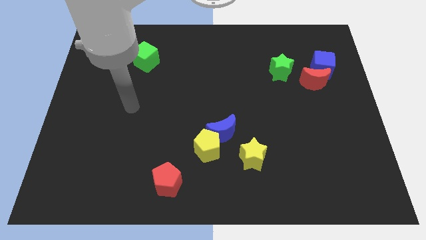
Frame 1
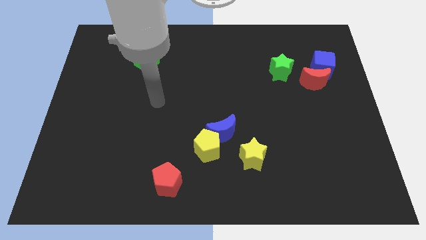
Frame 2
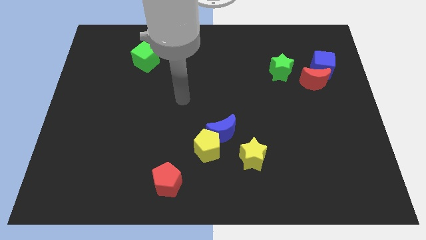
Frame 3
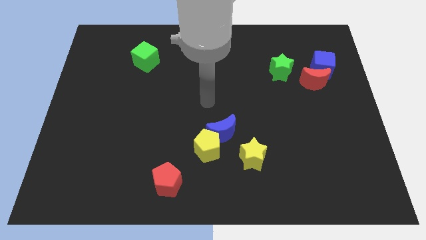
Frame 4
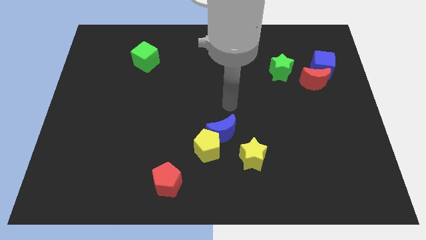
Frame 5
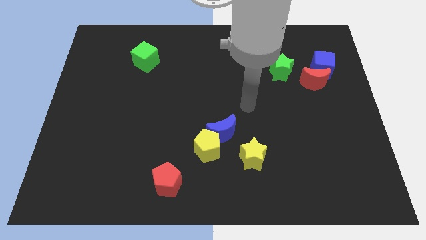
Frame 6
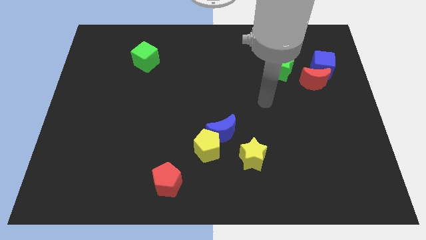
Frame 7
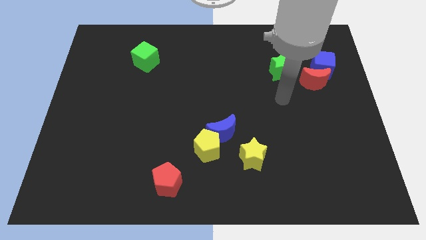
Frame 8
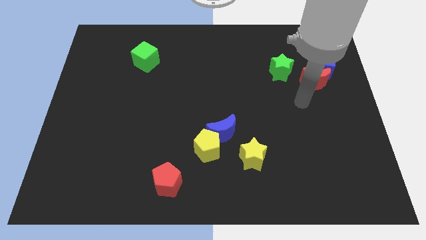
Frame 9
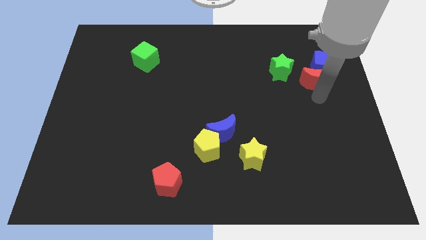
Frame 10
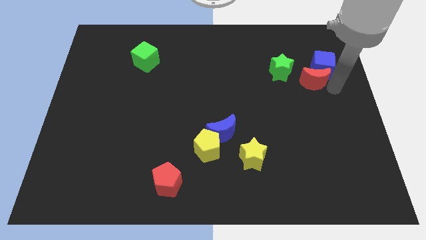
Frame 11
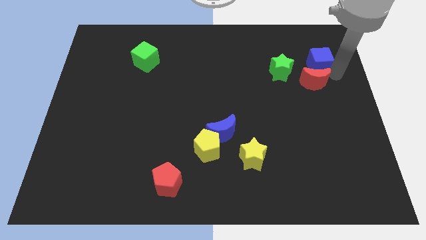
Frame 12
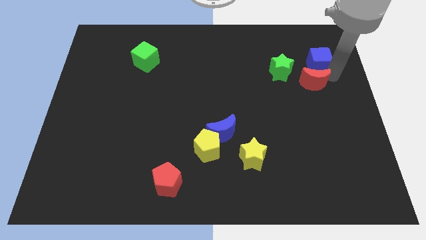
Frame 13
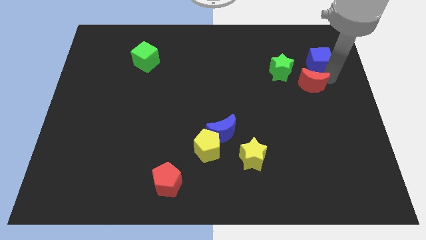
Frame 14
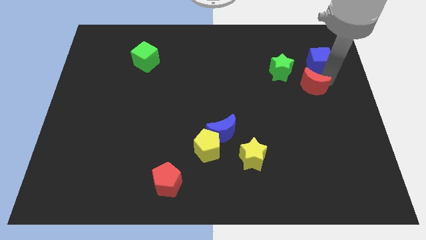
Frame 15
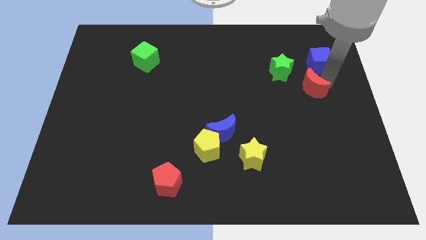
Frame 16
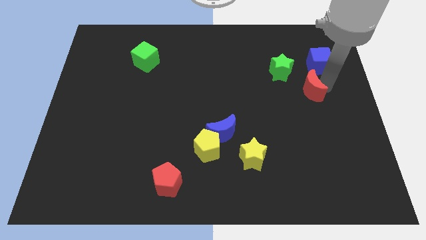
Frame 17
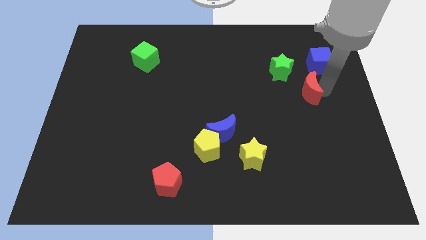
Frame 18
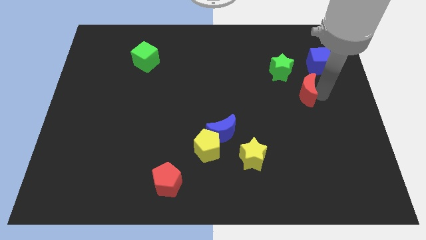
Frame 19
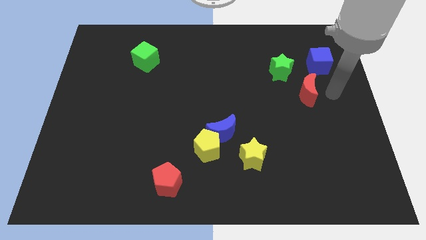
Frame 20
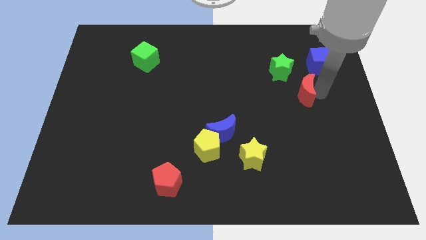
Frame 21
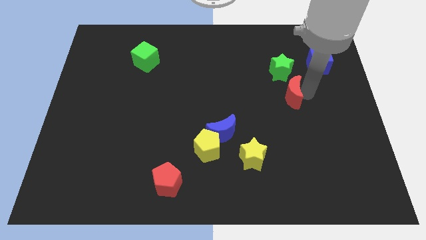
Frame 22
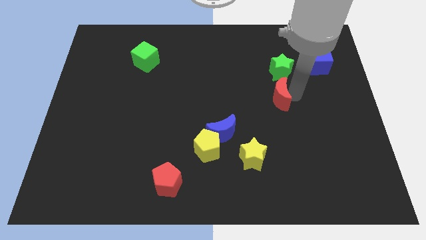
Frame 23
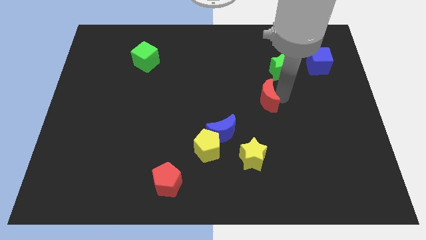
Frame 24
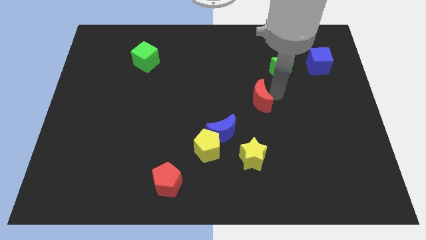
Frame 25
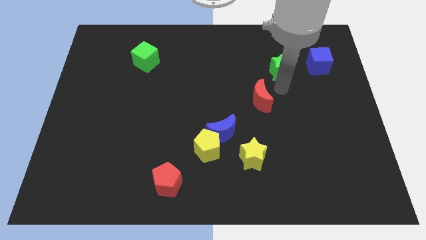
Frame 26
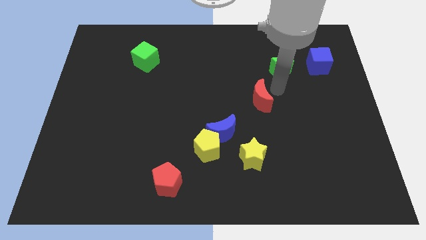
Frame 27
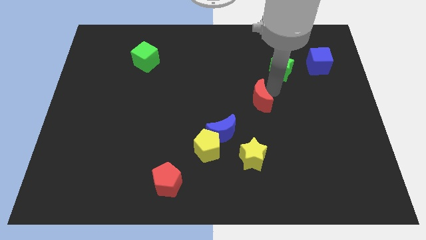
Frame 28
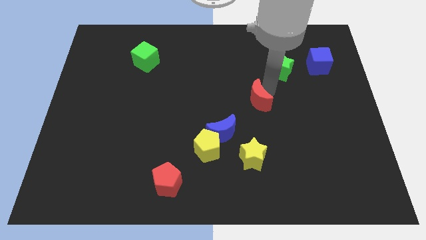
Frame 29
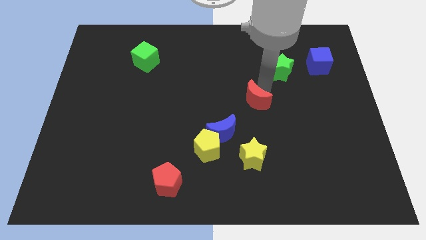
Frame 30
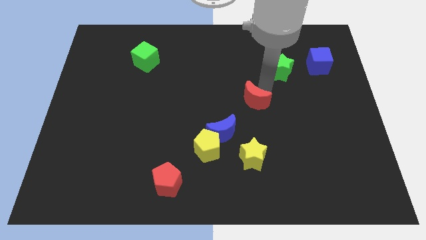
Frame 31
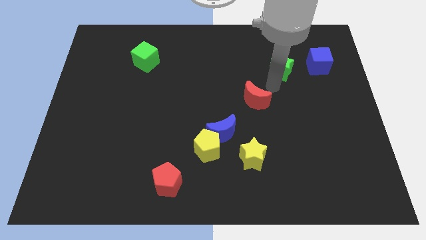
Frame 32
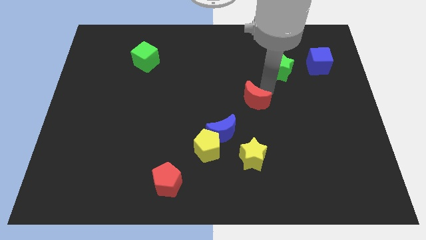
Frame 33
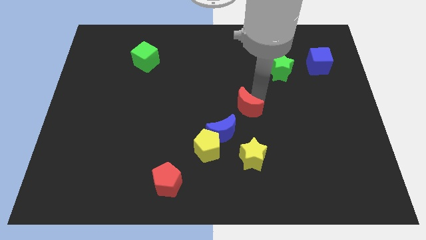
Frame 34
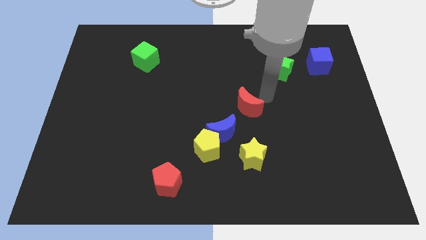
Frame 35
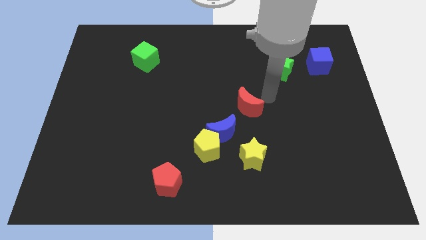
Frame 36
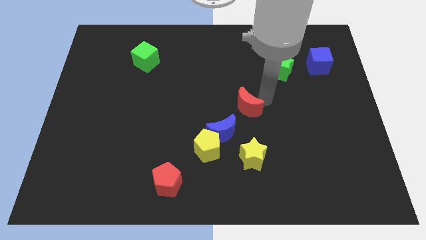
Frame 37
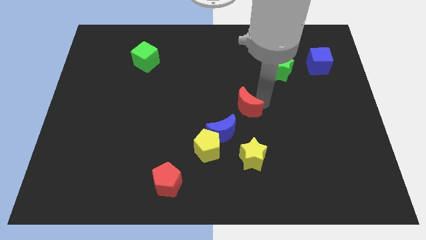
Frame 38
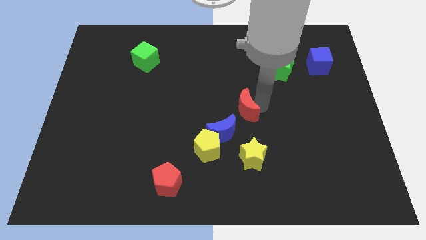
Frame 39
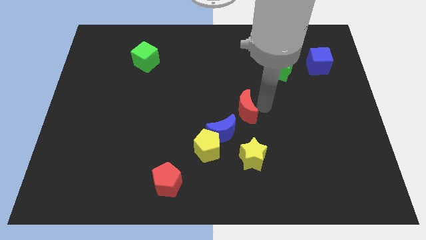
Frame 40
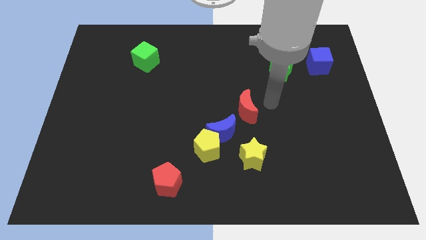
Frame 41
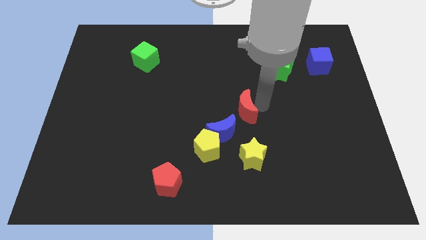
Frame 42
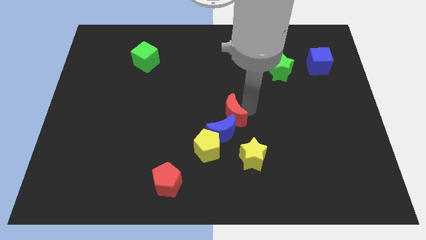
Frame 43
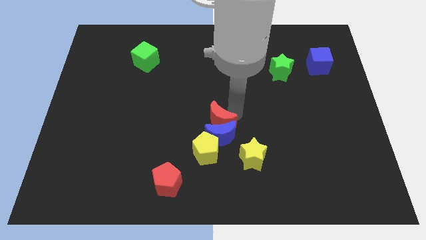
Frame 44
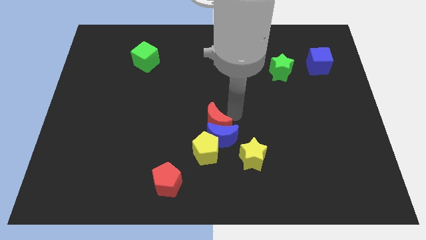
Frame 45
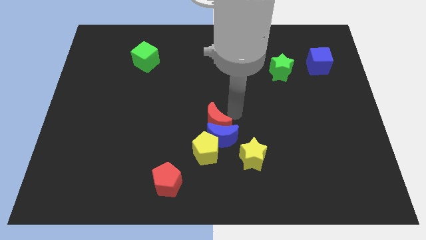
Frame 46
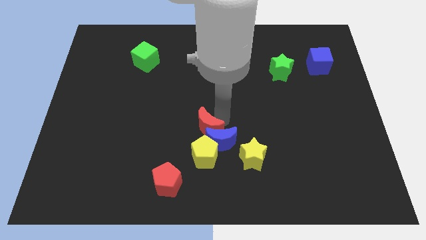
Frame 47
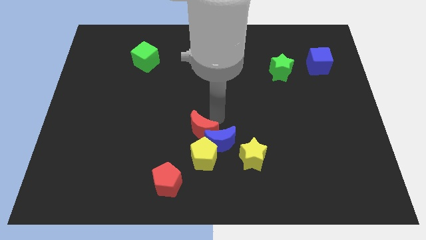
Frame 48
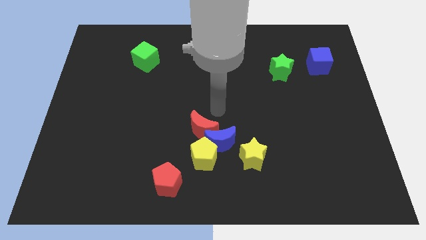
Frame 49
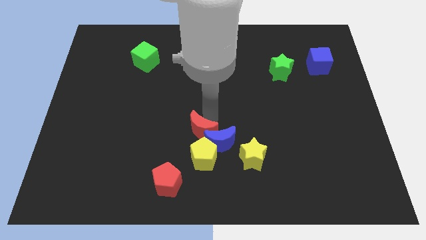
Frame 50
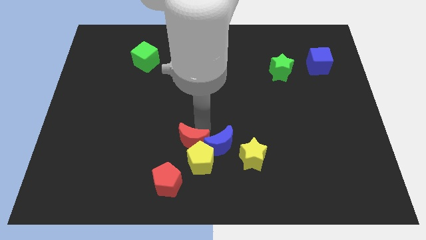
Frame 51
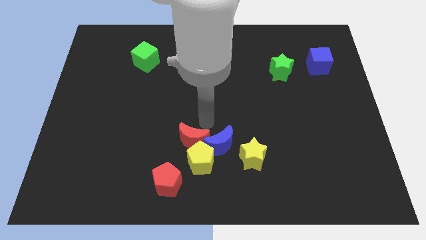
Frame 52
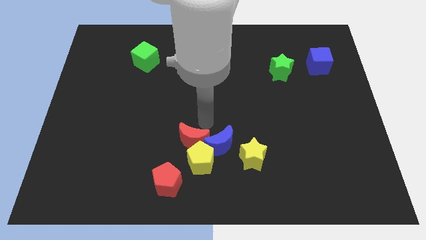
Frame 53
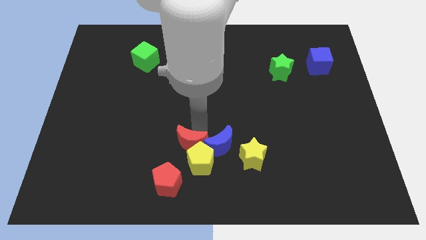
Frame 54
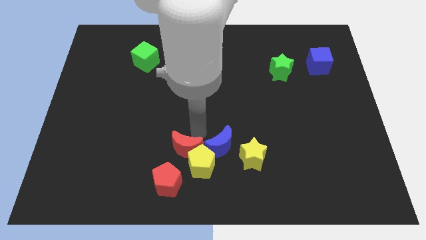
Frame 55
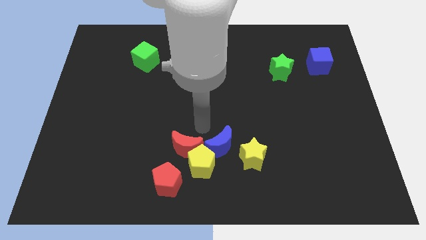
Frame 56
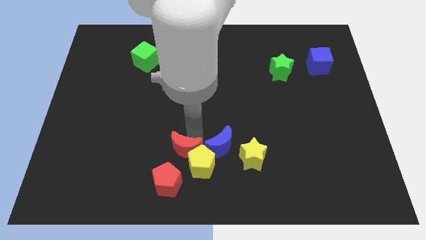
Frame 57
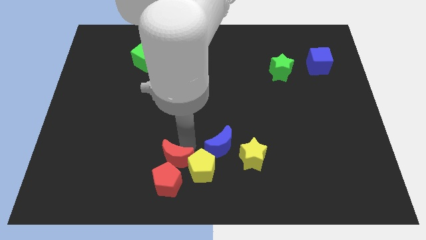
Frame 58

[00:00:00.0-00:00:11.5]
slide the red moon to the red pentagon

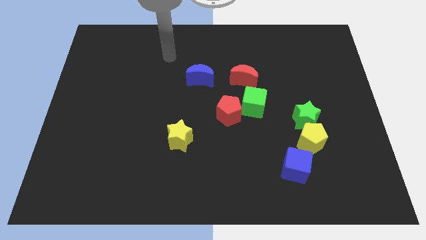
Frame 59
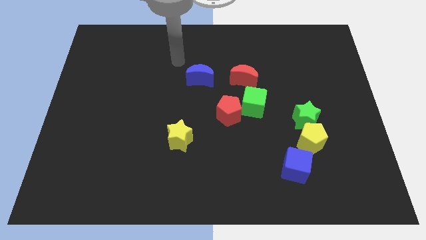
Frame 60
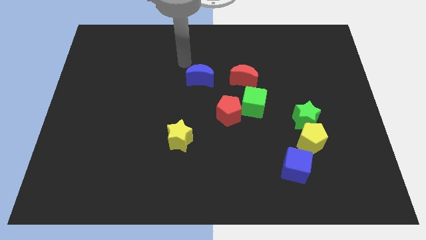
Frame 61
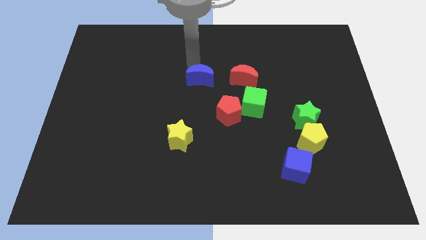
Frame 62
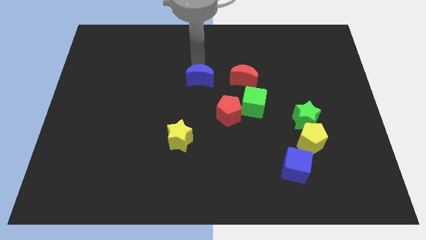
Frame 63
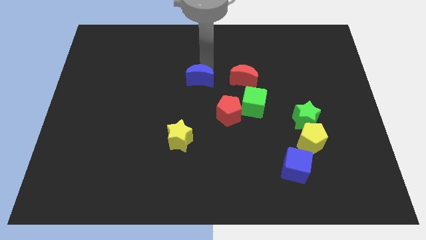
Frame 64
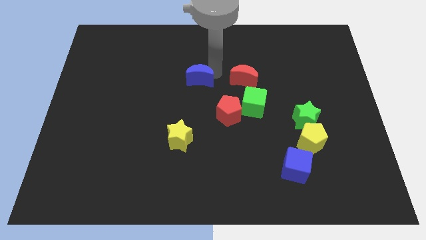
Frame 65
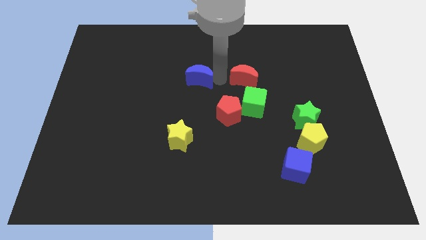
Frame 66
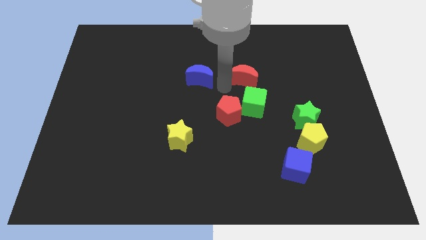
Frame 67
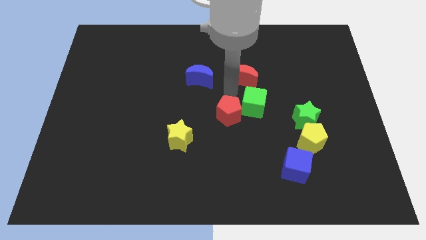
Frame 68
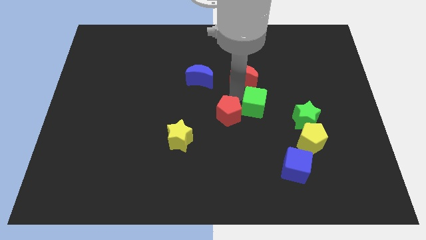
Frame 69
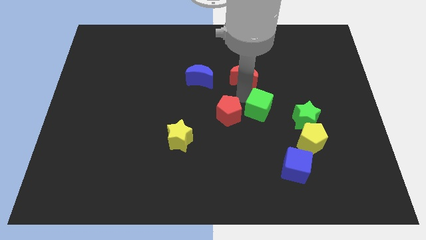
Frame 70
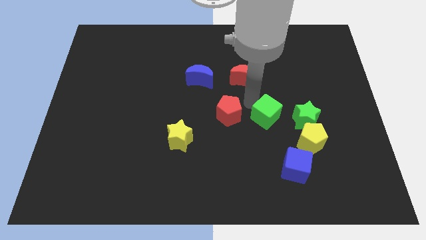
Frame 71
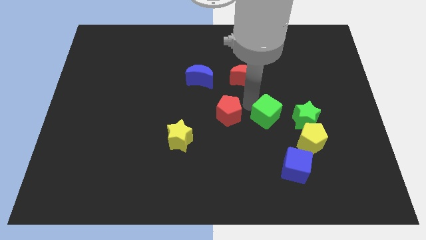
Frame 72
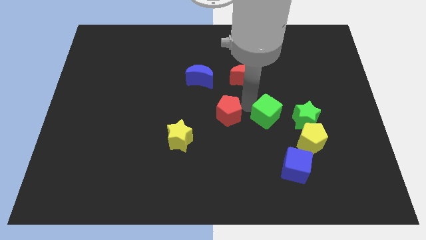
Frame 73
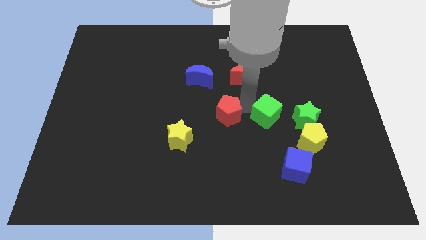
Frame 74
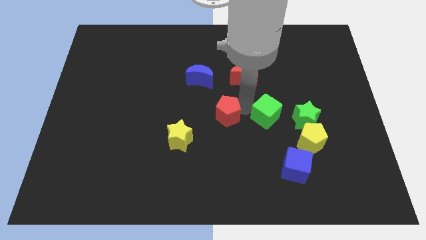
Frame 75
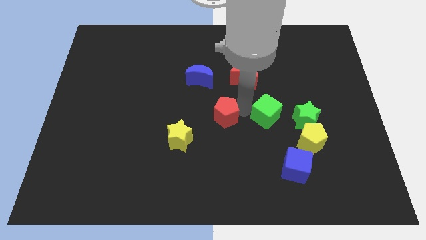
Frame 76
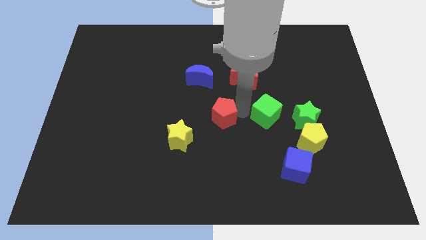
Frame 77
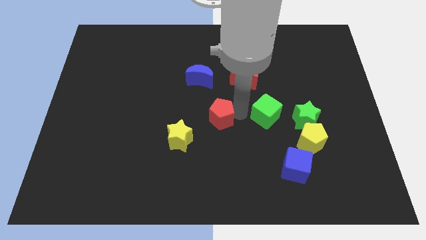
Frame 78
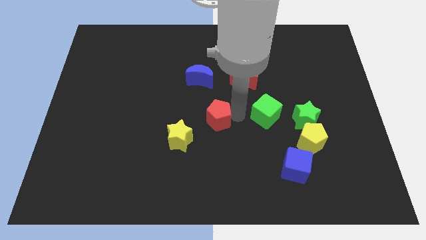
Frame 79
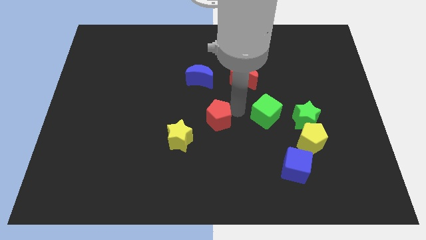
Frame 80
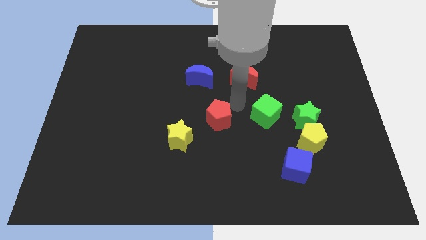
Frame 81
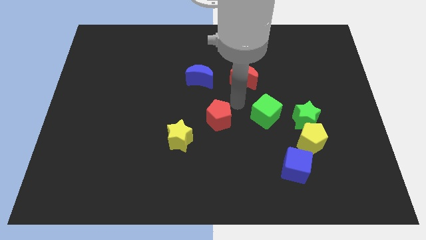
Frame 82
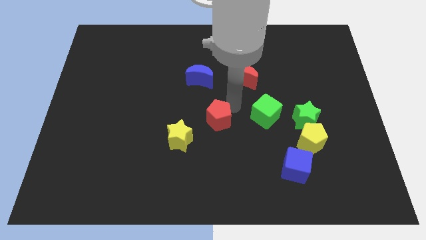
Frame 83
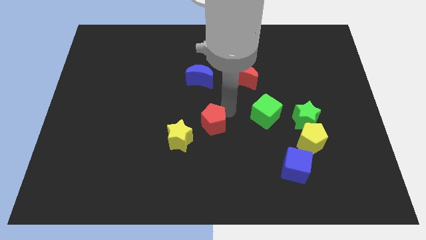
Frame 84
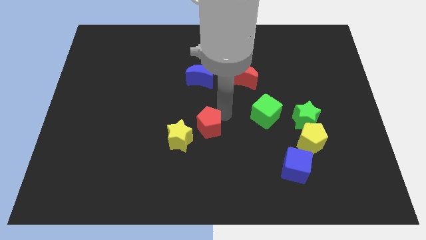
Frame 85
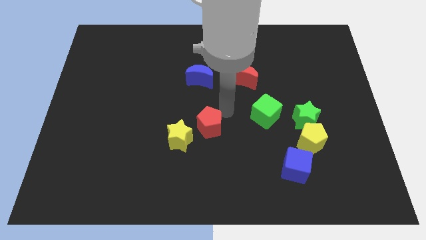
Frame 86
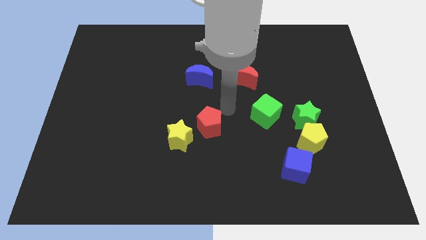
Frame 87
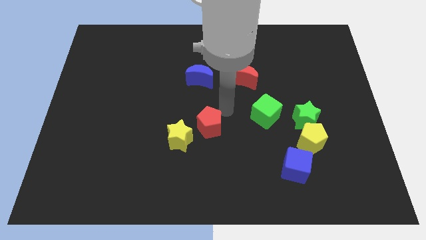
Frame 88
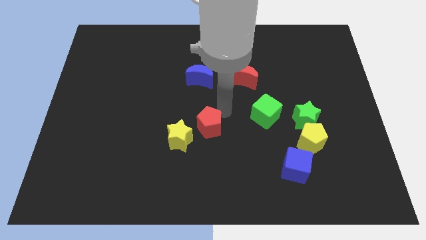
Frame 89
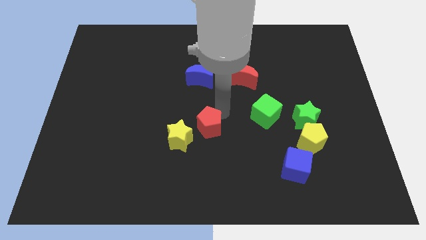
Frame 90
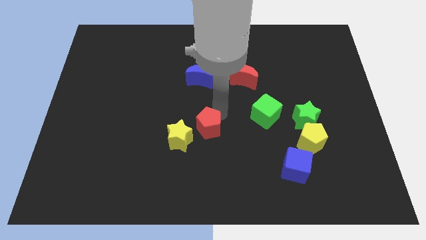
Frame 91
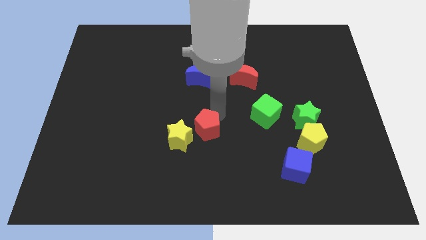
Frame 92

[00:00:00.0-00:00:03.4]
put the red pentagon towards the yellow star
